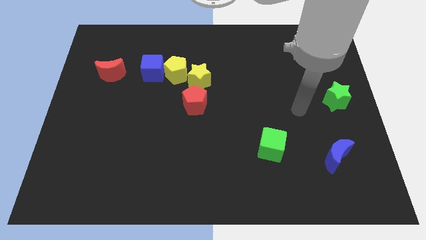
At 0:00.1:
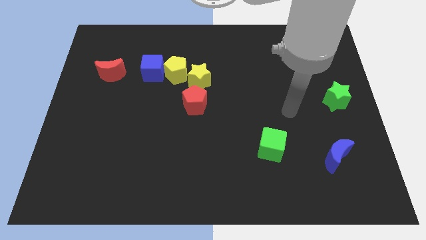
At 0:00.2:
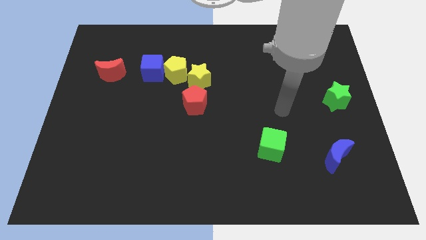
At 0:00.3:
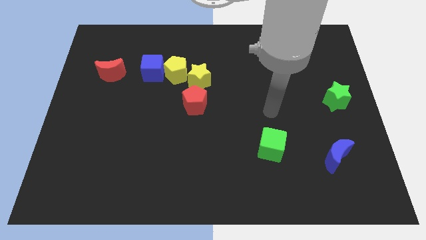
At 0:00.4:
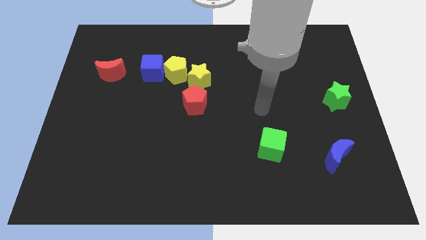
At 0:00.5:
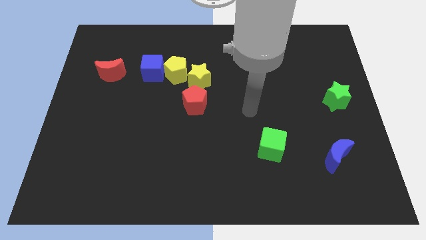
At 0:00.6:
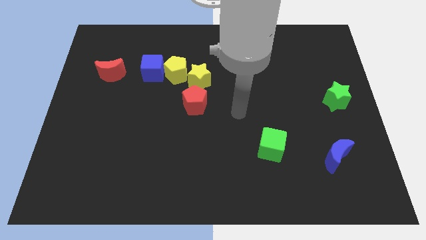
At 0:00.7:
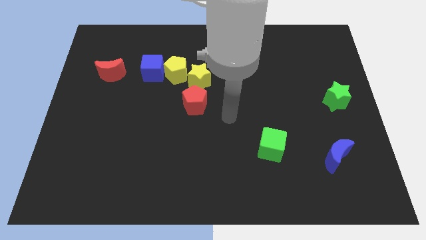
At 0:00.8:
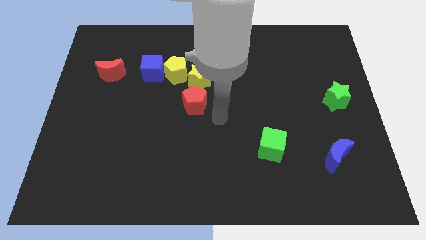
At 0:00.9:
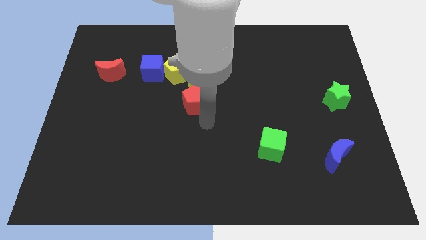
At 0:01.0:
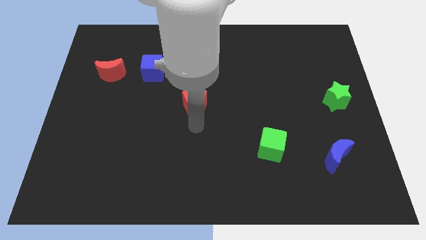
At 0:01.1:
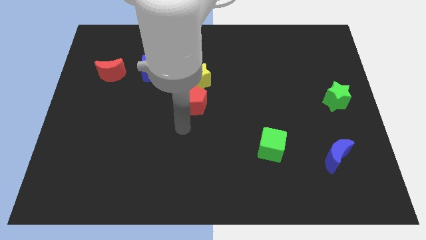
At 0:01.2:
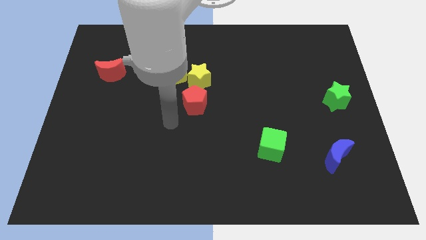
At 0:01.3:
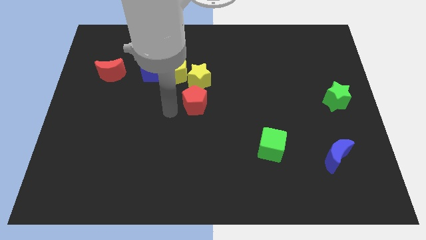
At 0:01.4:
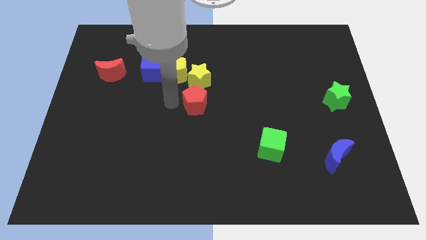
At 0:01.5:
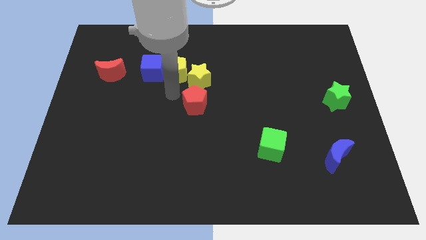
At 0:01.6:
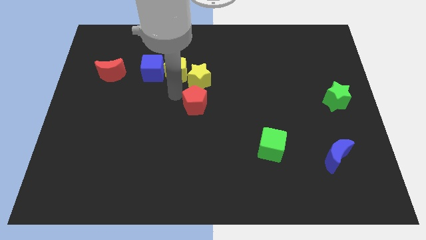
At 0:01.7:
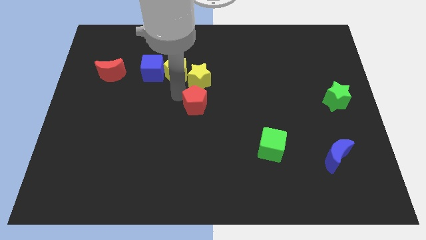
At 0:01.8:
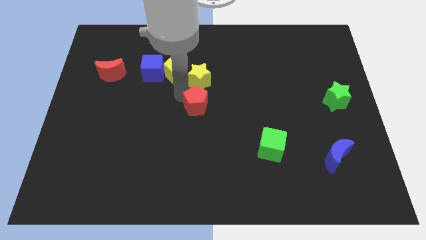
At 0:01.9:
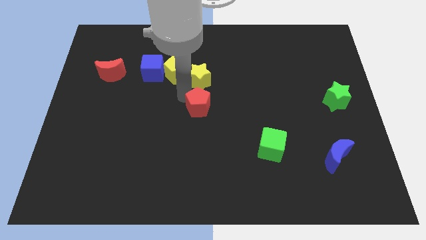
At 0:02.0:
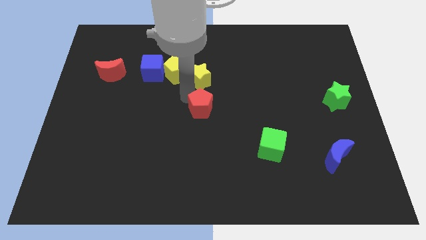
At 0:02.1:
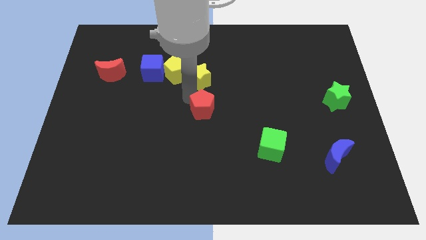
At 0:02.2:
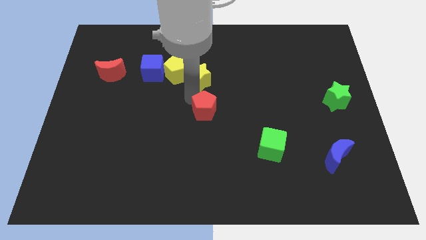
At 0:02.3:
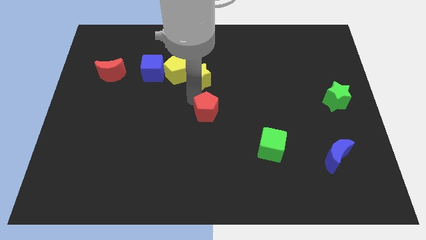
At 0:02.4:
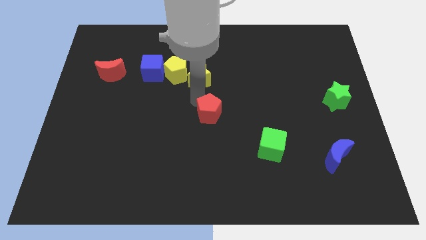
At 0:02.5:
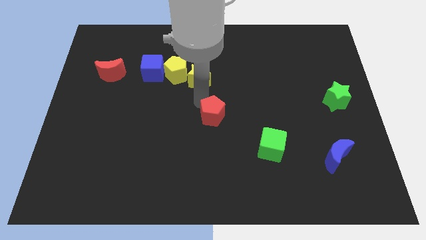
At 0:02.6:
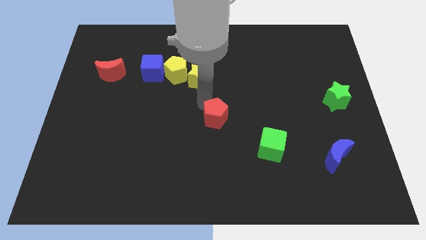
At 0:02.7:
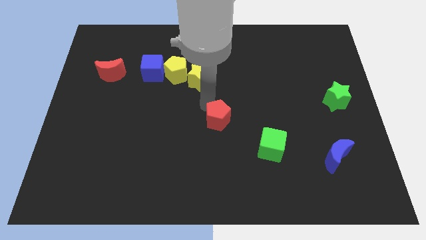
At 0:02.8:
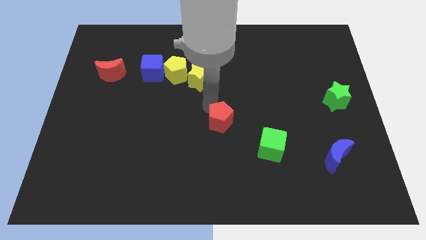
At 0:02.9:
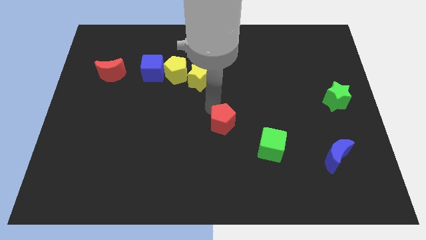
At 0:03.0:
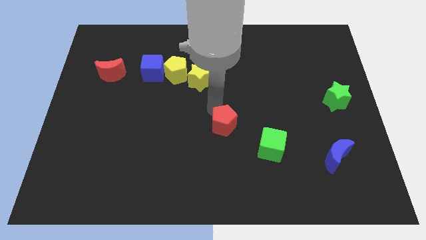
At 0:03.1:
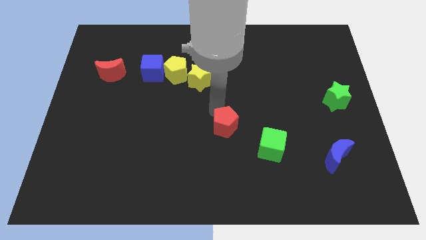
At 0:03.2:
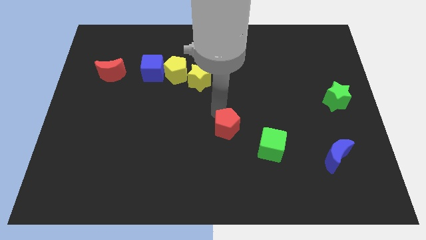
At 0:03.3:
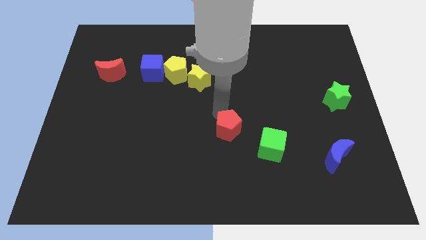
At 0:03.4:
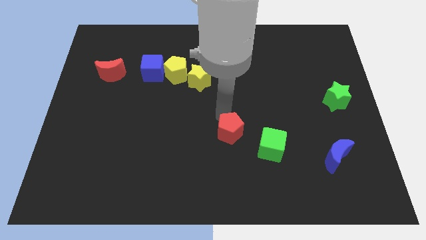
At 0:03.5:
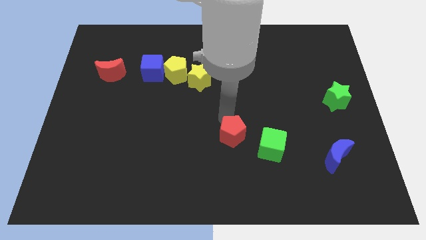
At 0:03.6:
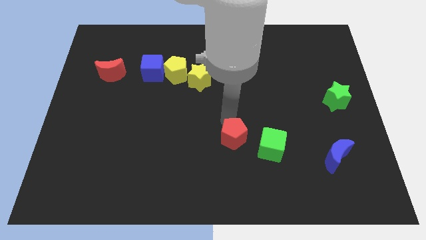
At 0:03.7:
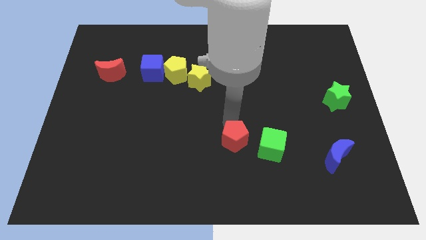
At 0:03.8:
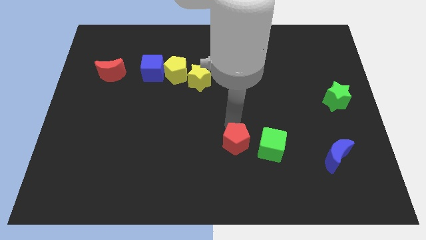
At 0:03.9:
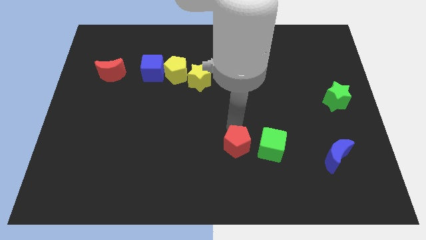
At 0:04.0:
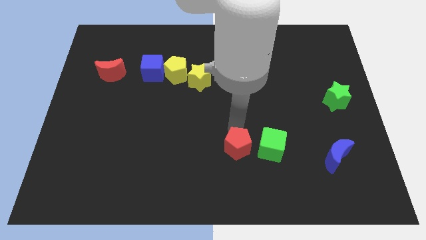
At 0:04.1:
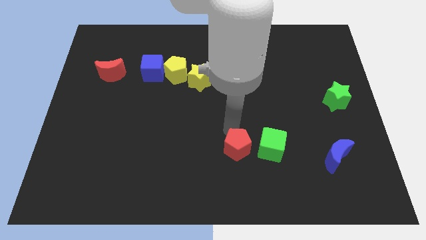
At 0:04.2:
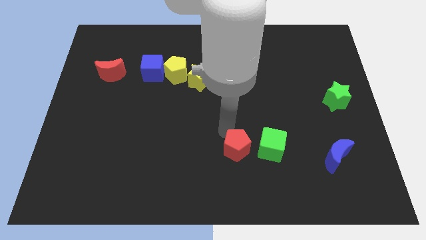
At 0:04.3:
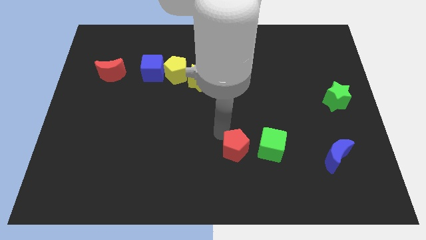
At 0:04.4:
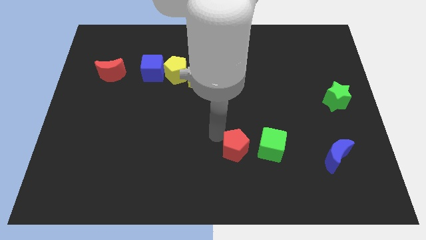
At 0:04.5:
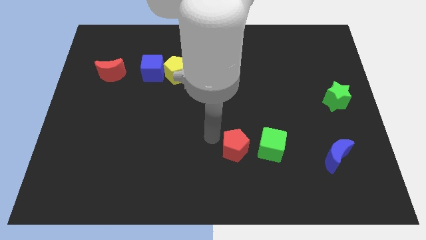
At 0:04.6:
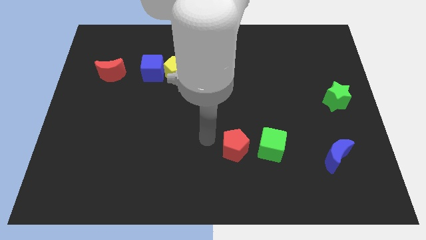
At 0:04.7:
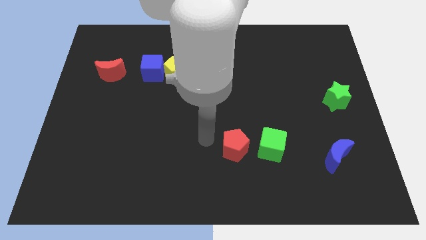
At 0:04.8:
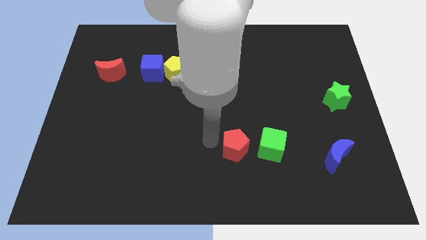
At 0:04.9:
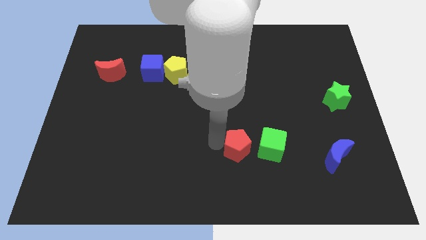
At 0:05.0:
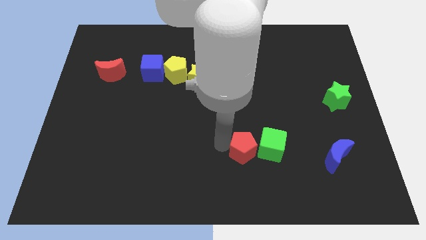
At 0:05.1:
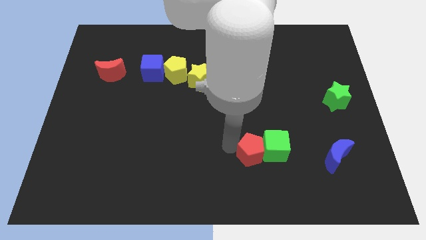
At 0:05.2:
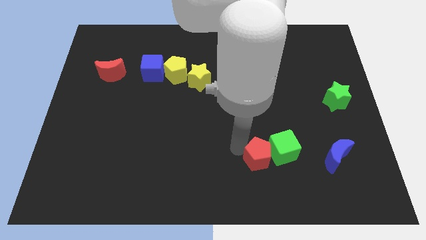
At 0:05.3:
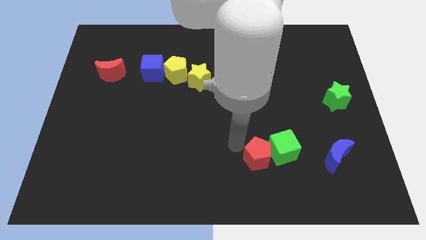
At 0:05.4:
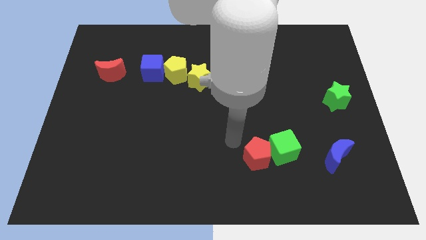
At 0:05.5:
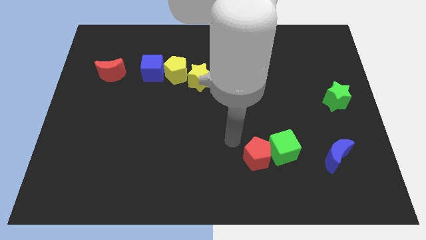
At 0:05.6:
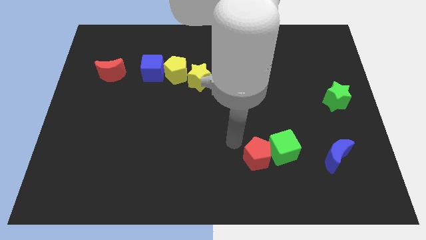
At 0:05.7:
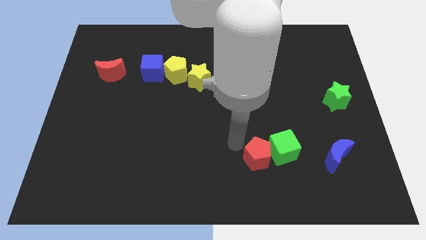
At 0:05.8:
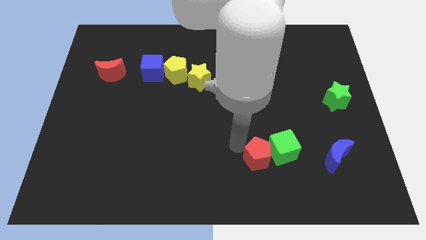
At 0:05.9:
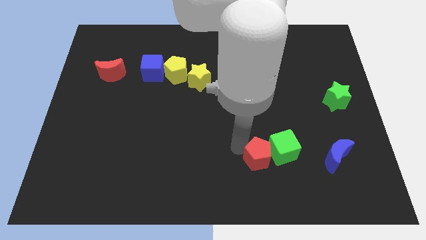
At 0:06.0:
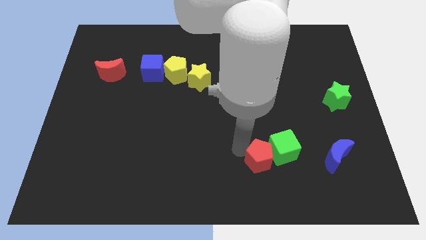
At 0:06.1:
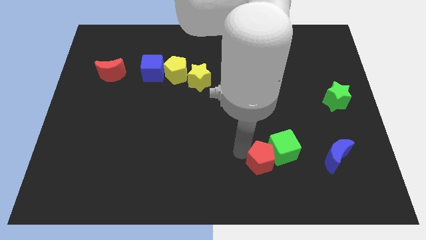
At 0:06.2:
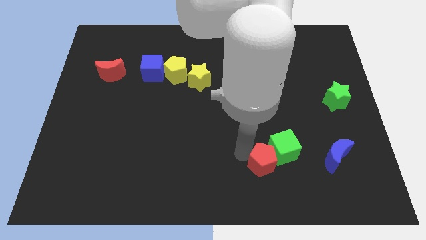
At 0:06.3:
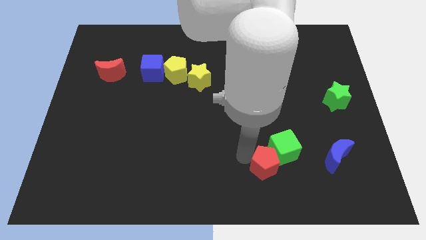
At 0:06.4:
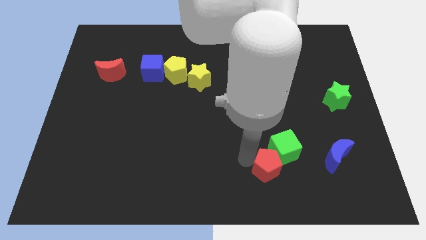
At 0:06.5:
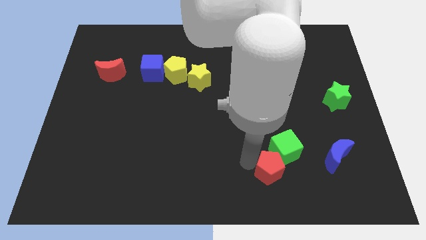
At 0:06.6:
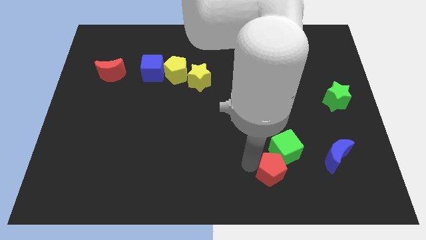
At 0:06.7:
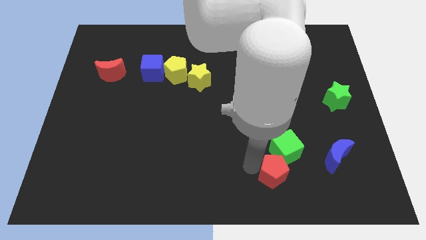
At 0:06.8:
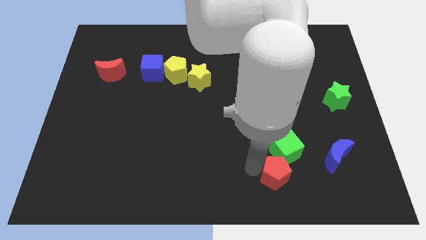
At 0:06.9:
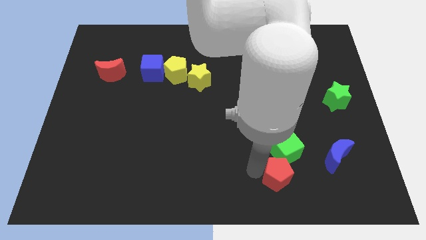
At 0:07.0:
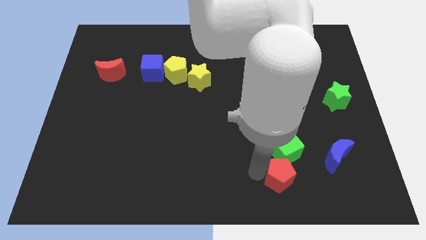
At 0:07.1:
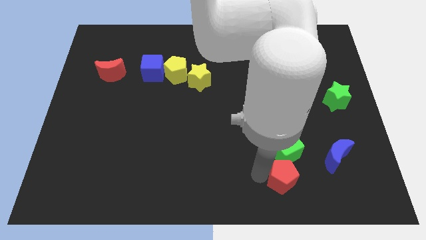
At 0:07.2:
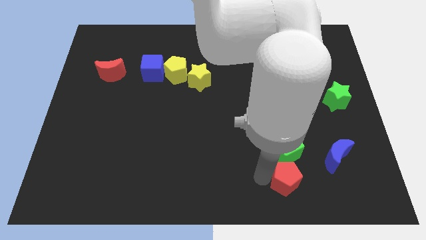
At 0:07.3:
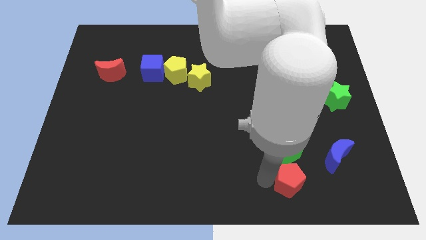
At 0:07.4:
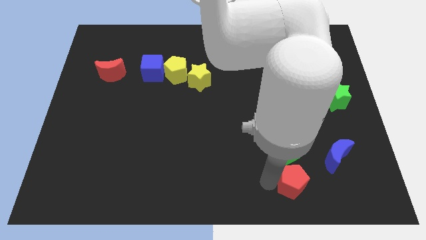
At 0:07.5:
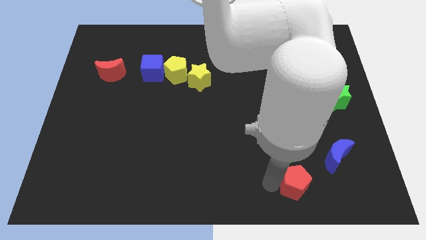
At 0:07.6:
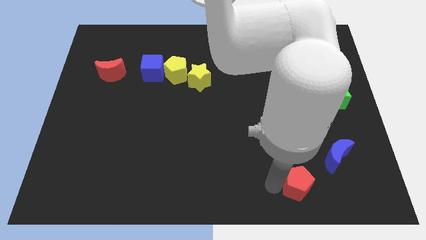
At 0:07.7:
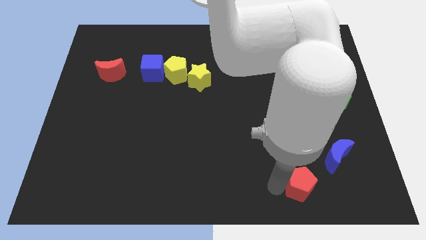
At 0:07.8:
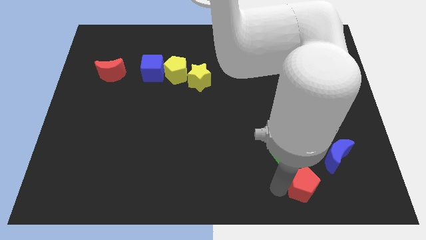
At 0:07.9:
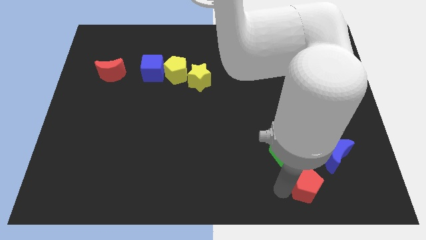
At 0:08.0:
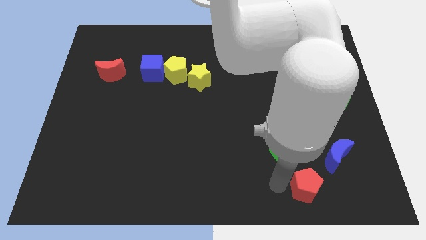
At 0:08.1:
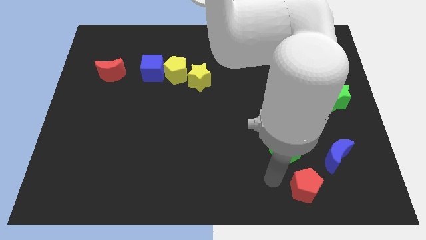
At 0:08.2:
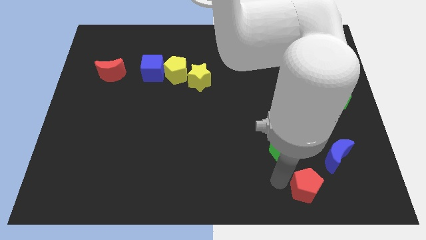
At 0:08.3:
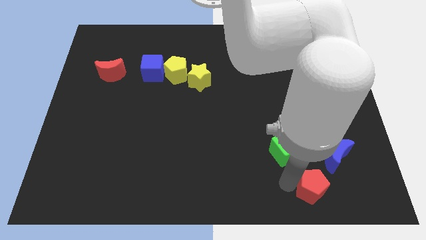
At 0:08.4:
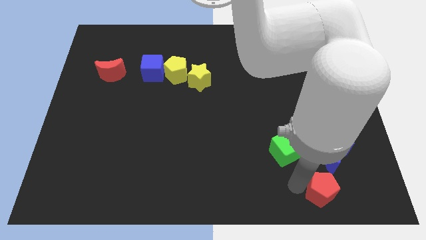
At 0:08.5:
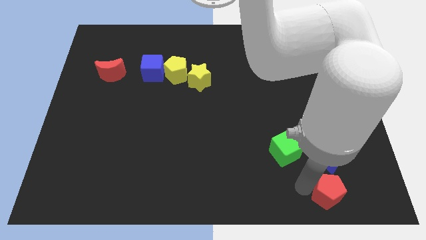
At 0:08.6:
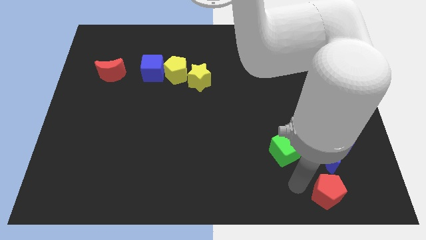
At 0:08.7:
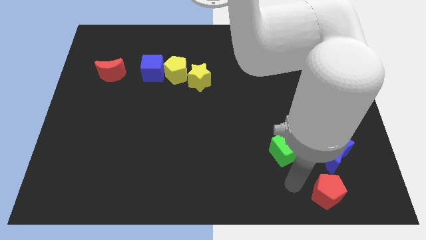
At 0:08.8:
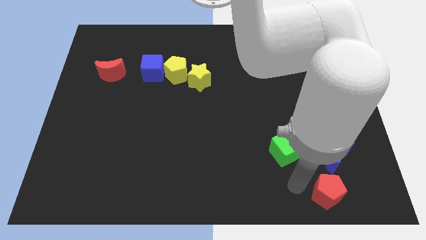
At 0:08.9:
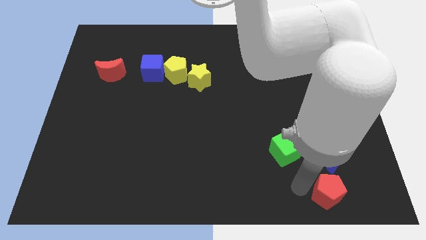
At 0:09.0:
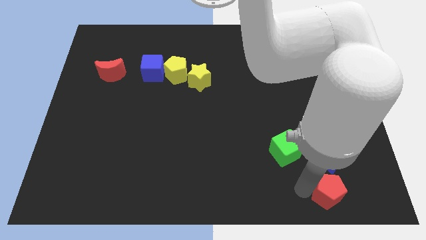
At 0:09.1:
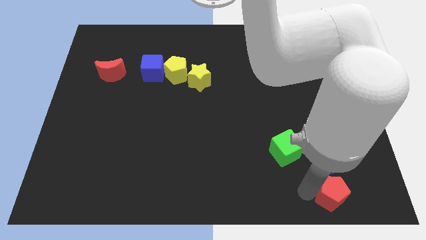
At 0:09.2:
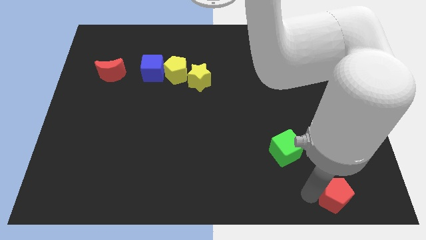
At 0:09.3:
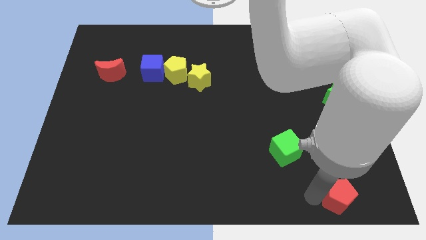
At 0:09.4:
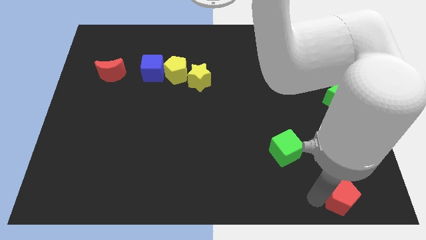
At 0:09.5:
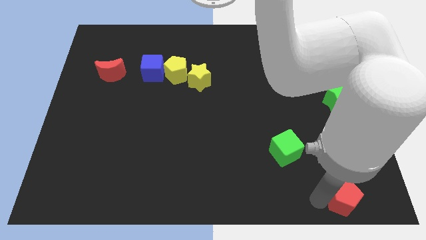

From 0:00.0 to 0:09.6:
move the red pentagon to the lower right corner
